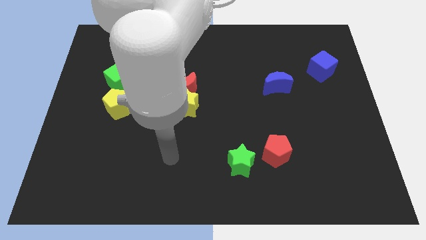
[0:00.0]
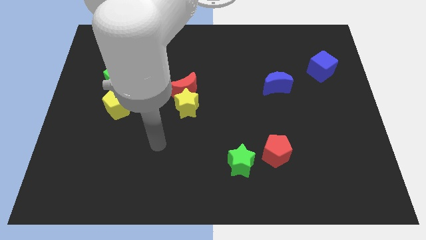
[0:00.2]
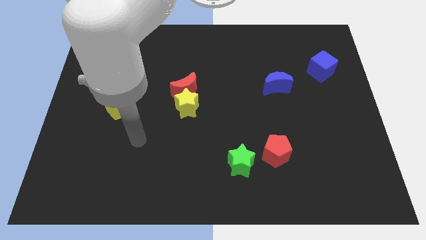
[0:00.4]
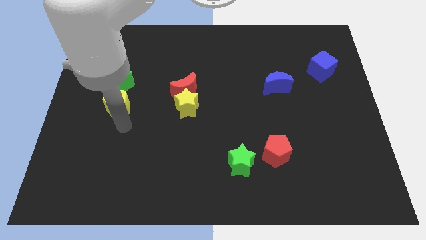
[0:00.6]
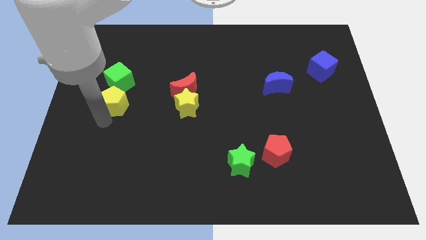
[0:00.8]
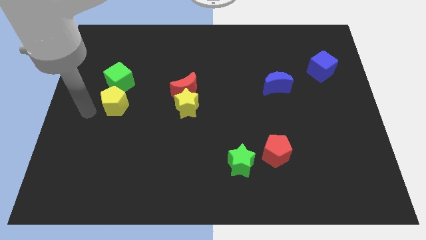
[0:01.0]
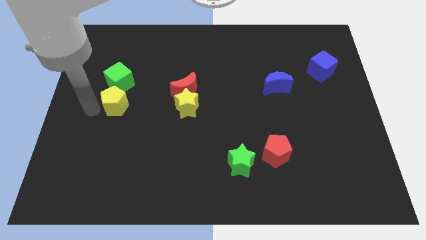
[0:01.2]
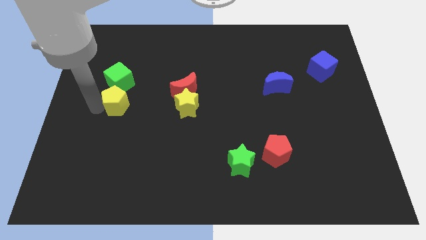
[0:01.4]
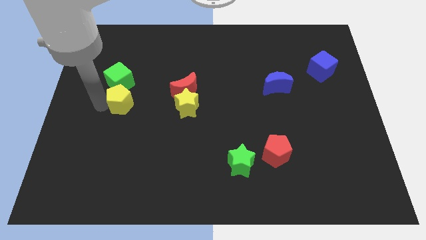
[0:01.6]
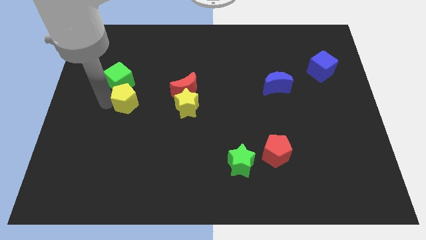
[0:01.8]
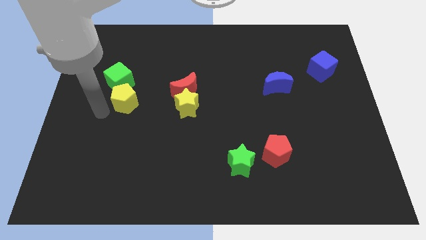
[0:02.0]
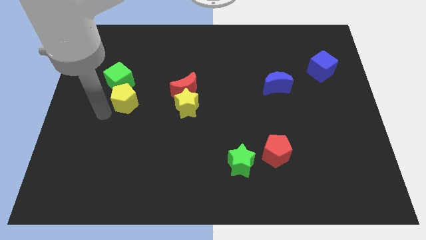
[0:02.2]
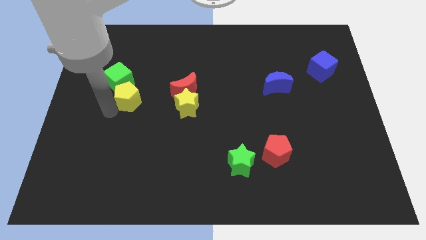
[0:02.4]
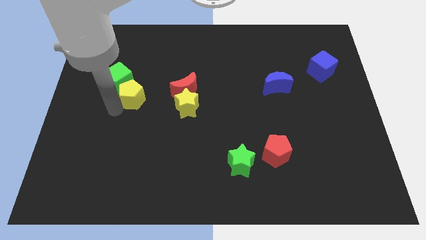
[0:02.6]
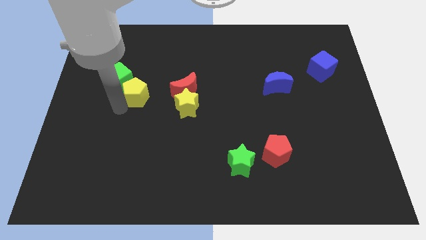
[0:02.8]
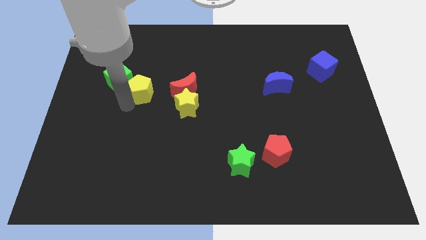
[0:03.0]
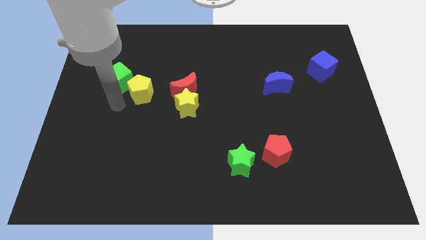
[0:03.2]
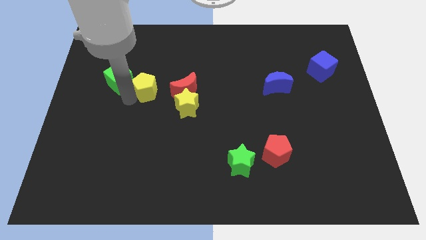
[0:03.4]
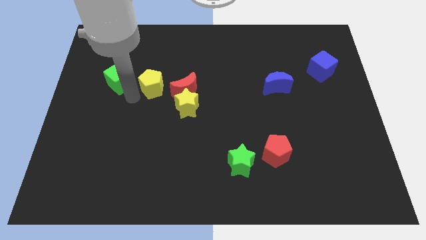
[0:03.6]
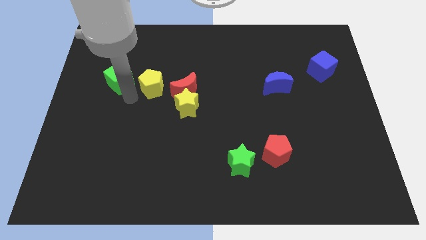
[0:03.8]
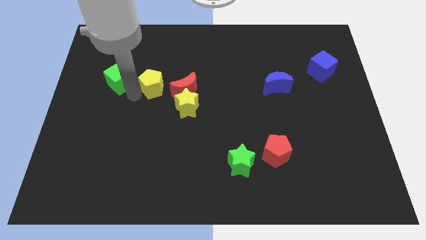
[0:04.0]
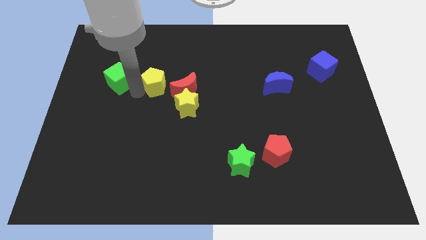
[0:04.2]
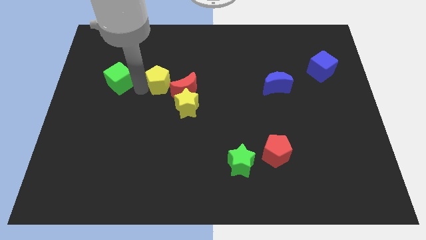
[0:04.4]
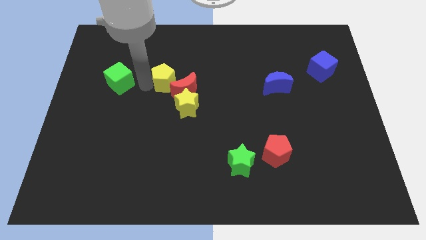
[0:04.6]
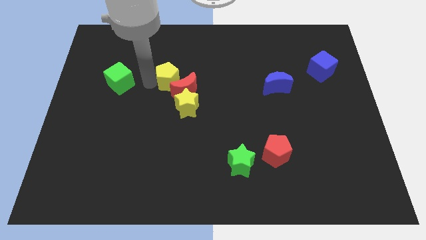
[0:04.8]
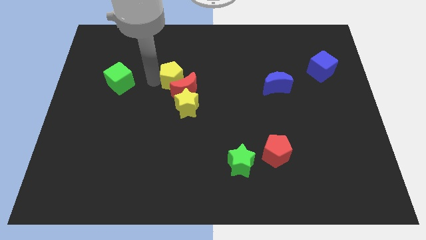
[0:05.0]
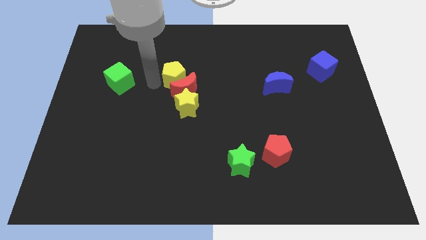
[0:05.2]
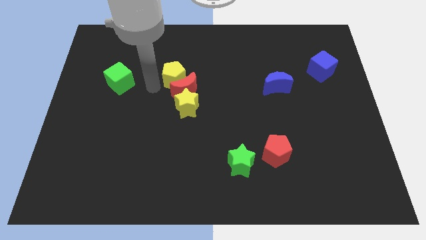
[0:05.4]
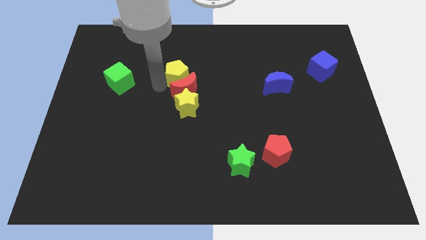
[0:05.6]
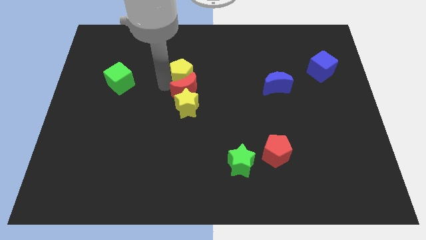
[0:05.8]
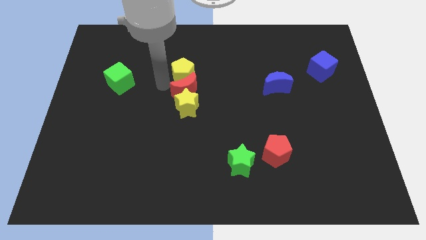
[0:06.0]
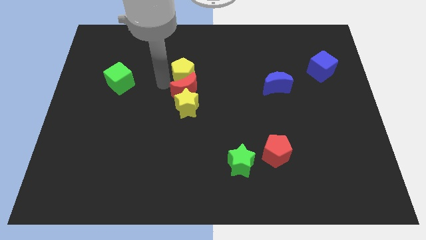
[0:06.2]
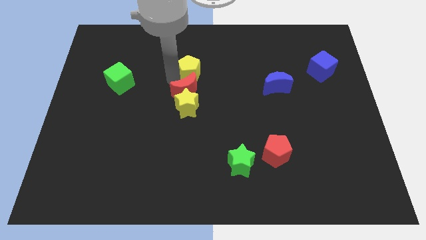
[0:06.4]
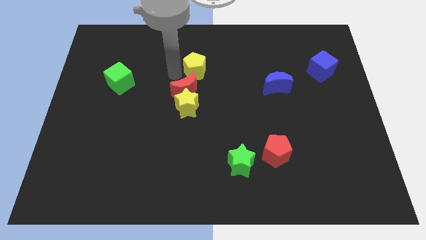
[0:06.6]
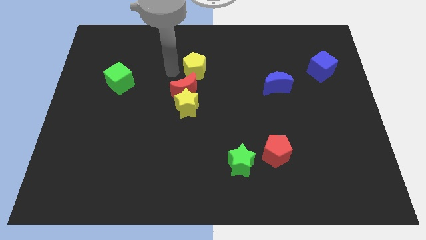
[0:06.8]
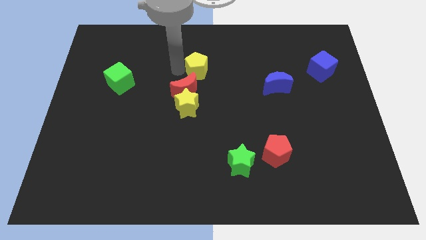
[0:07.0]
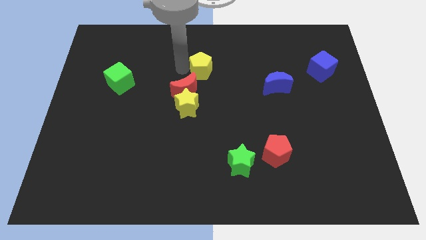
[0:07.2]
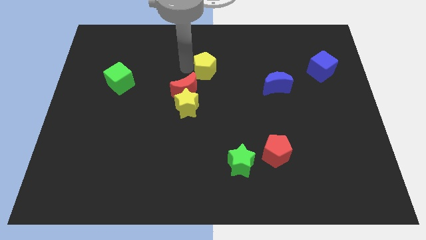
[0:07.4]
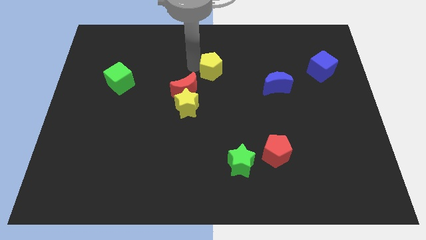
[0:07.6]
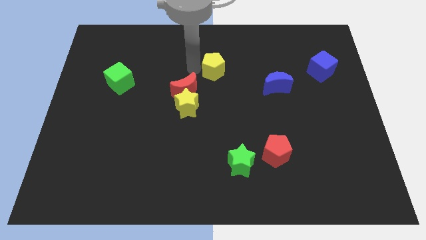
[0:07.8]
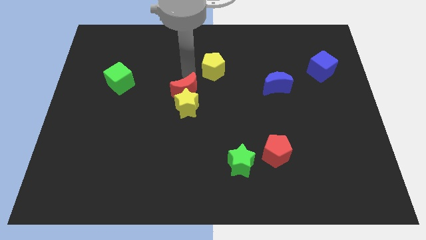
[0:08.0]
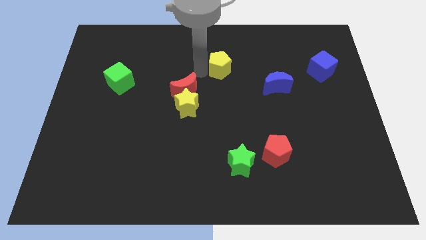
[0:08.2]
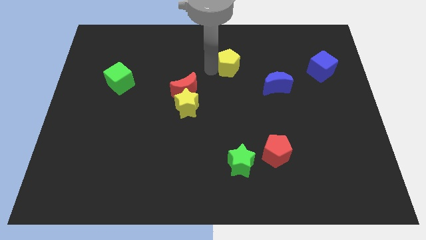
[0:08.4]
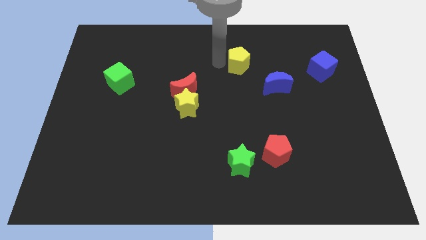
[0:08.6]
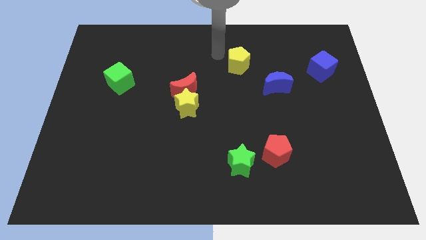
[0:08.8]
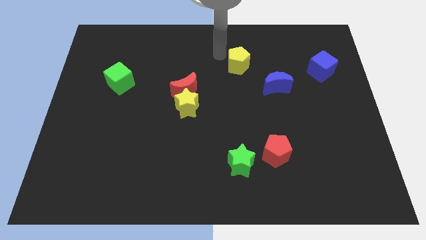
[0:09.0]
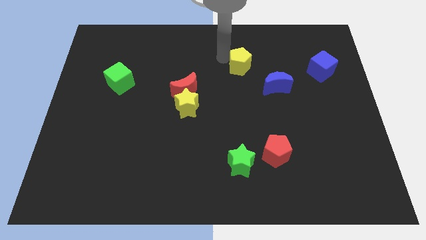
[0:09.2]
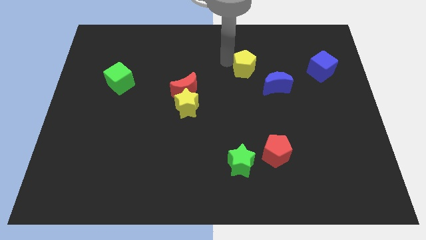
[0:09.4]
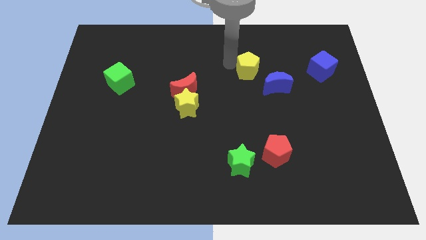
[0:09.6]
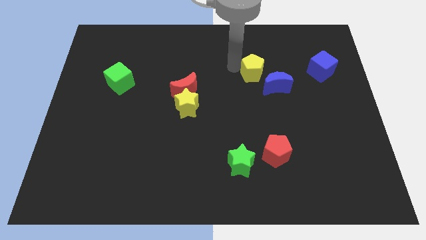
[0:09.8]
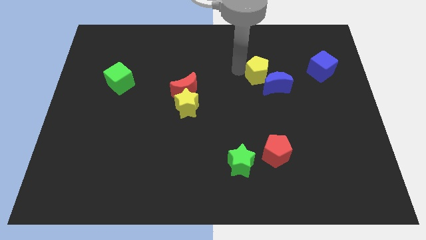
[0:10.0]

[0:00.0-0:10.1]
push the yellow pentagon to the blue moon

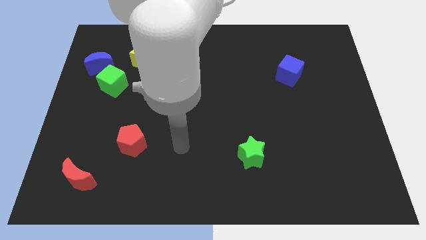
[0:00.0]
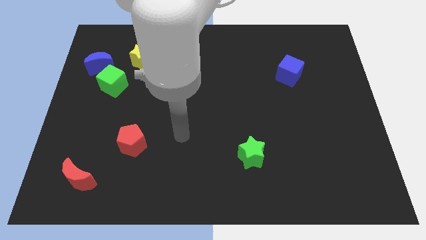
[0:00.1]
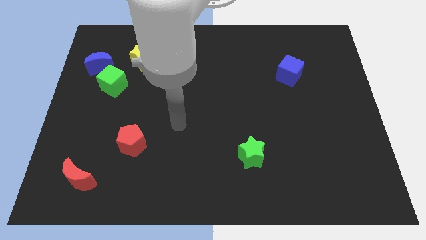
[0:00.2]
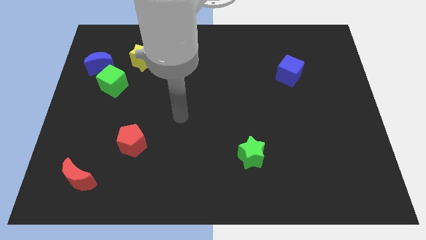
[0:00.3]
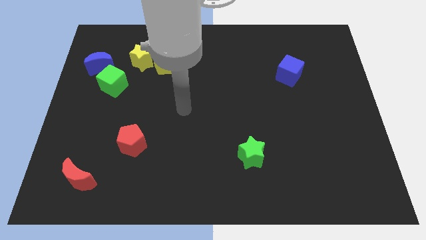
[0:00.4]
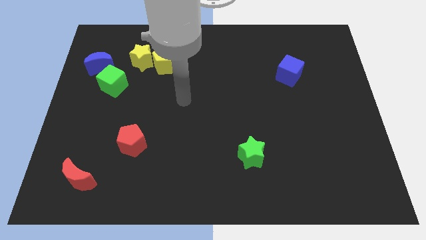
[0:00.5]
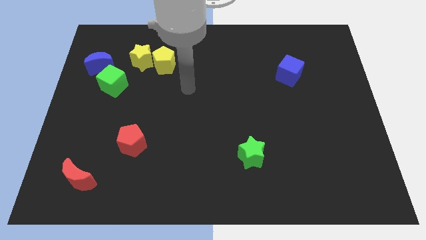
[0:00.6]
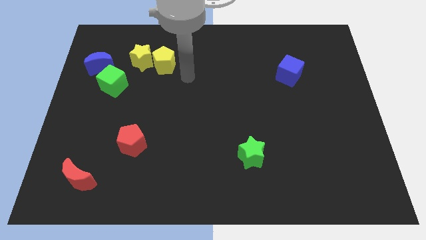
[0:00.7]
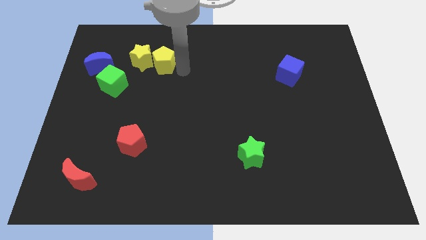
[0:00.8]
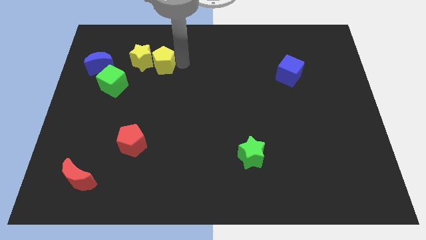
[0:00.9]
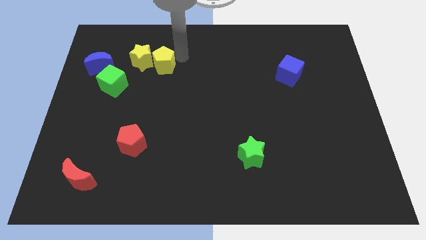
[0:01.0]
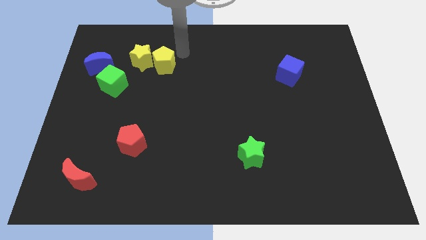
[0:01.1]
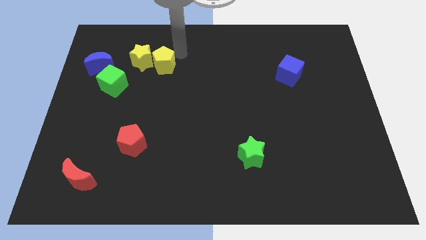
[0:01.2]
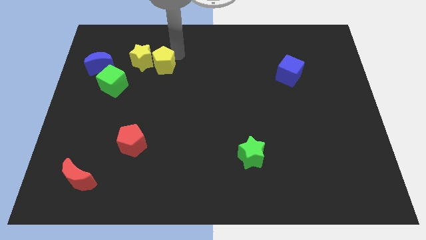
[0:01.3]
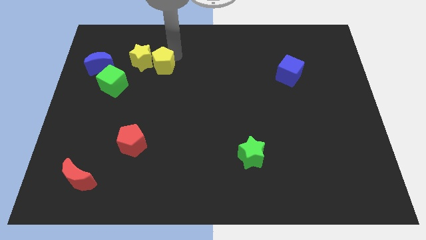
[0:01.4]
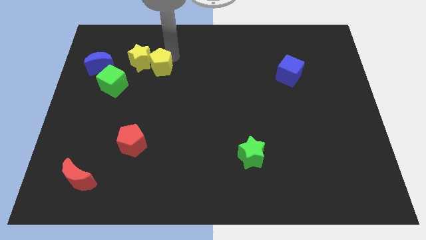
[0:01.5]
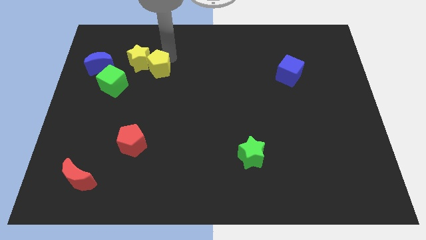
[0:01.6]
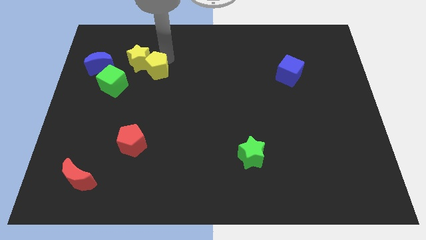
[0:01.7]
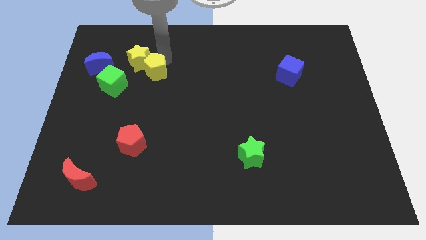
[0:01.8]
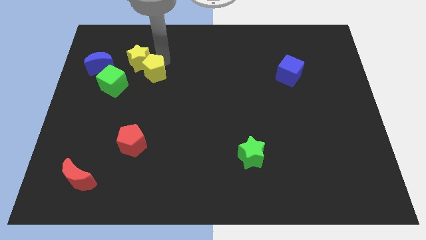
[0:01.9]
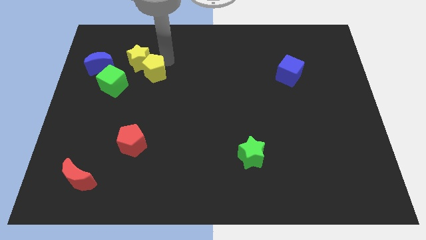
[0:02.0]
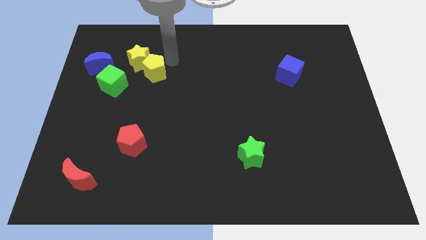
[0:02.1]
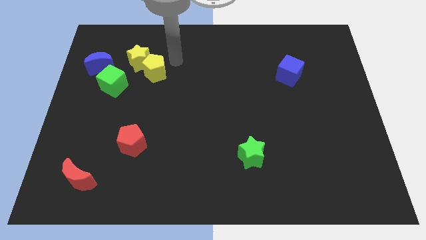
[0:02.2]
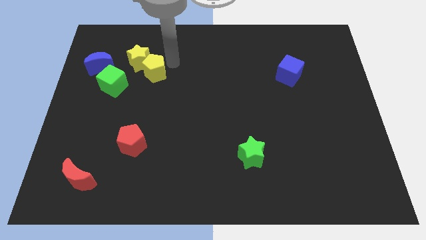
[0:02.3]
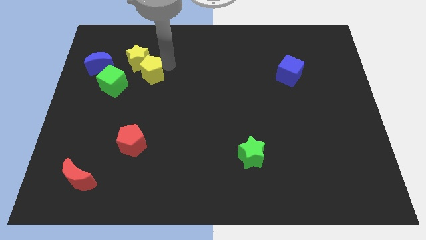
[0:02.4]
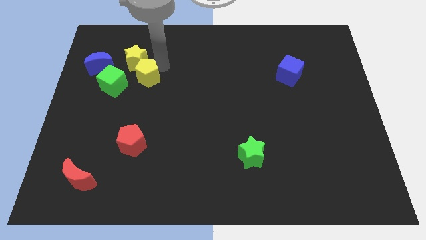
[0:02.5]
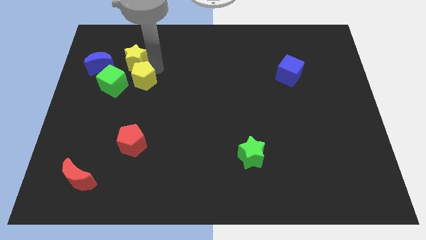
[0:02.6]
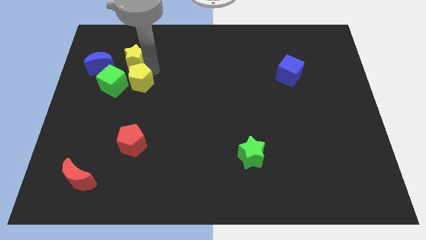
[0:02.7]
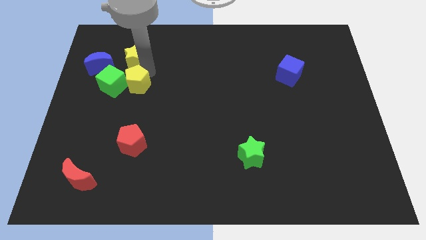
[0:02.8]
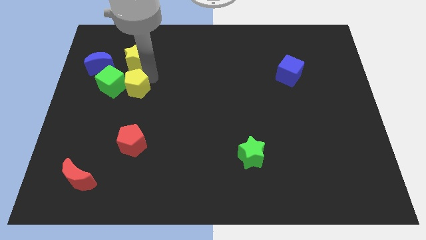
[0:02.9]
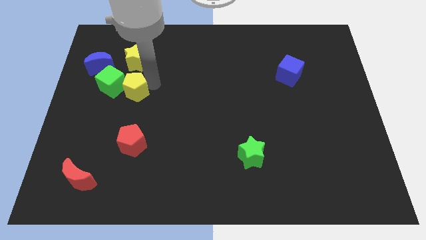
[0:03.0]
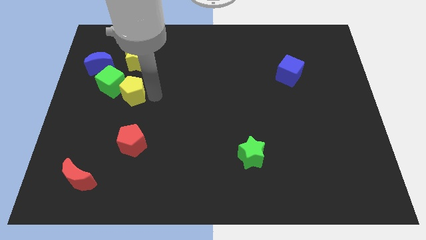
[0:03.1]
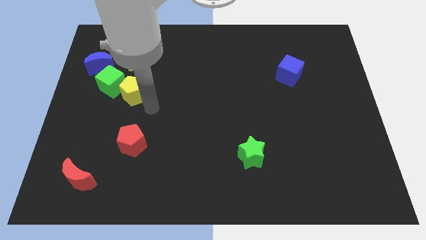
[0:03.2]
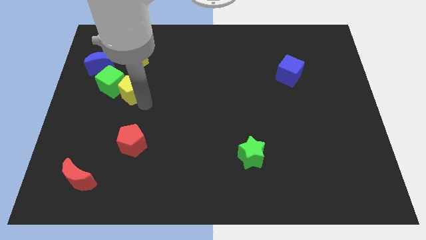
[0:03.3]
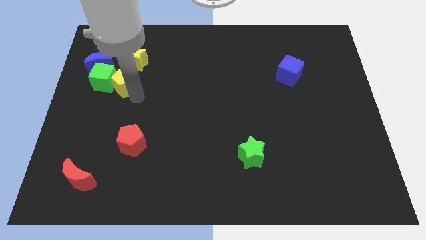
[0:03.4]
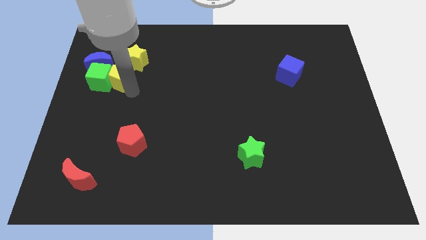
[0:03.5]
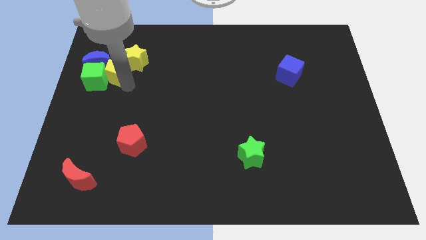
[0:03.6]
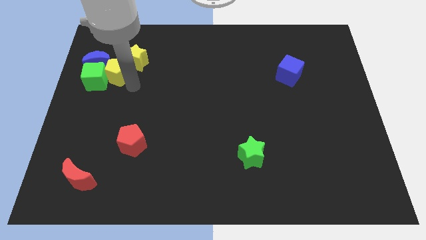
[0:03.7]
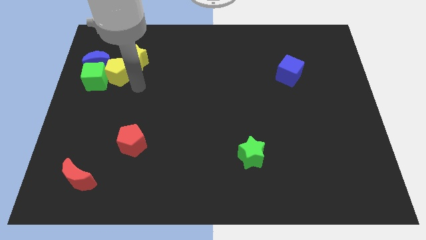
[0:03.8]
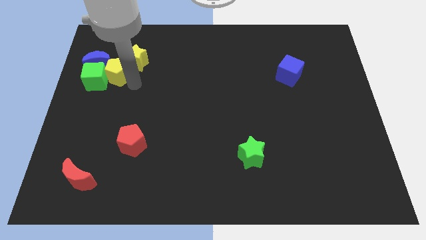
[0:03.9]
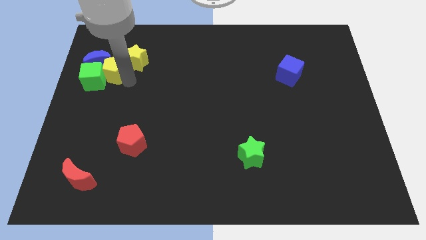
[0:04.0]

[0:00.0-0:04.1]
put the yellow pentagon close to the blue moon
